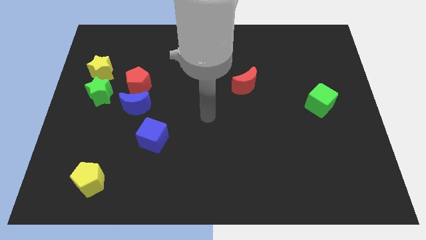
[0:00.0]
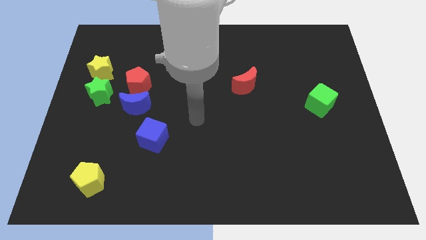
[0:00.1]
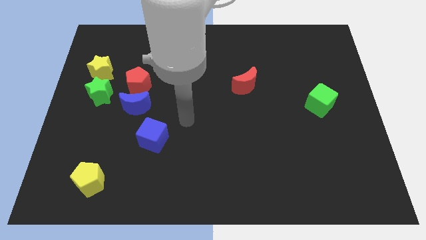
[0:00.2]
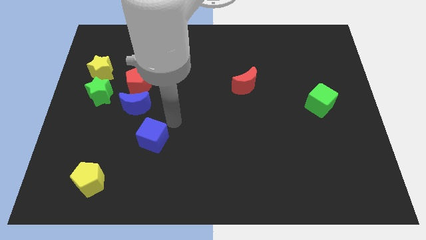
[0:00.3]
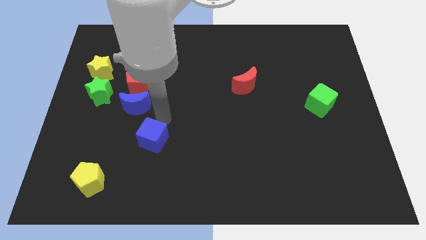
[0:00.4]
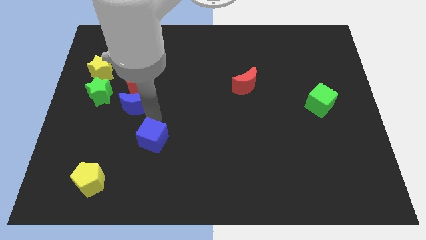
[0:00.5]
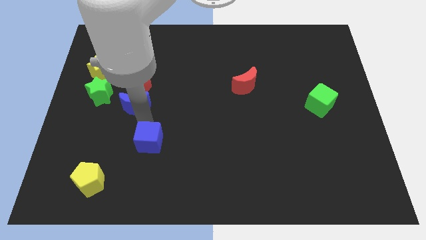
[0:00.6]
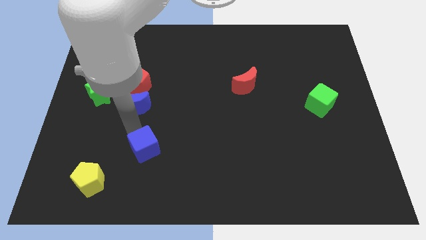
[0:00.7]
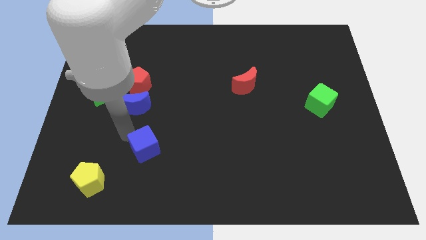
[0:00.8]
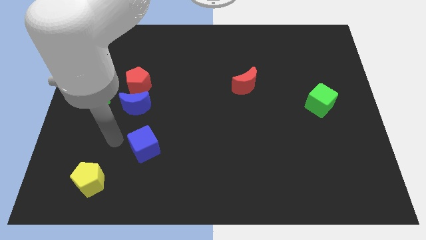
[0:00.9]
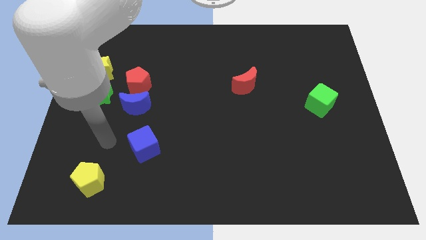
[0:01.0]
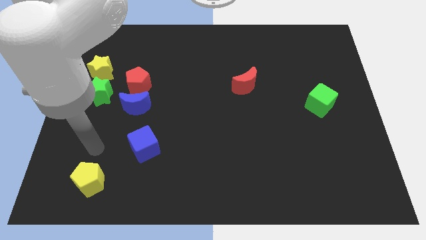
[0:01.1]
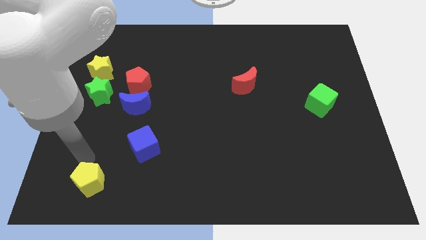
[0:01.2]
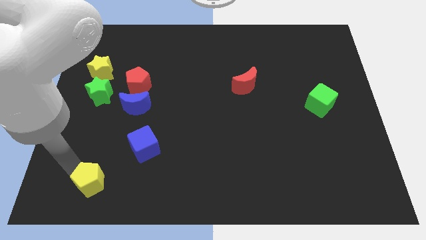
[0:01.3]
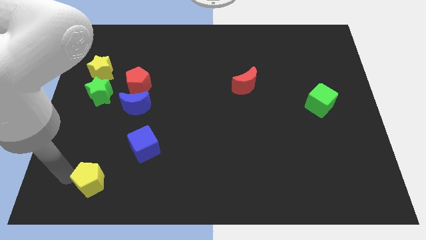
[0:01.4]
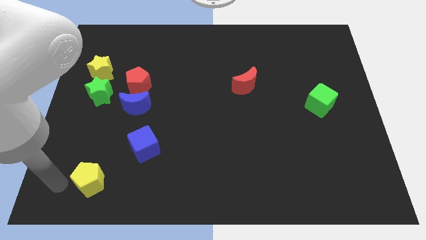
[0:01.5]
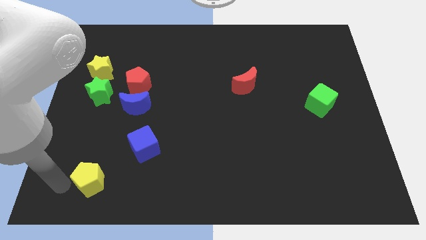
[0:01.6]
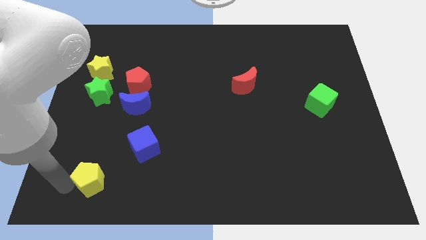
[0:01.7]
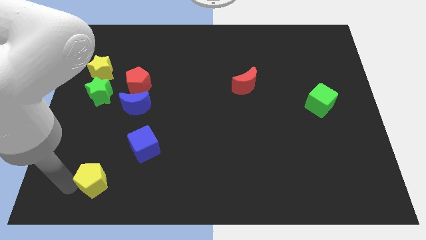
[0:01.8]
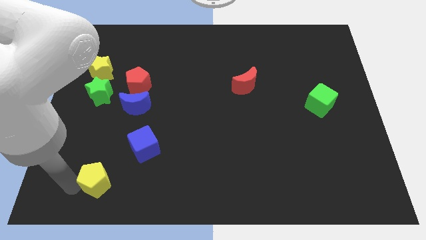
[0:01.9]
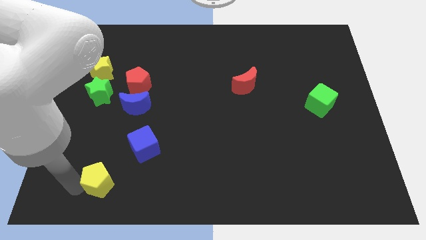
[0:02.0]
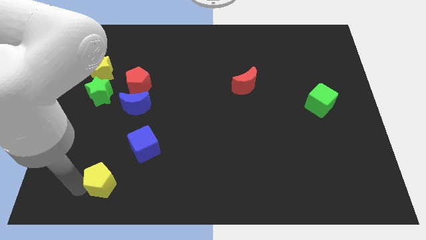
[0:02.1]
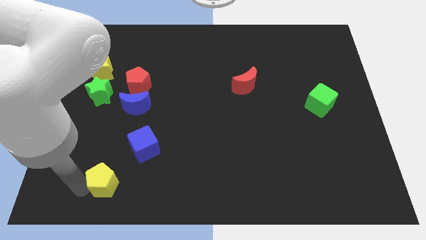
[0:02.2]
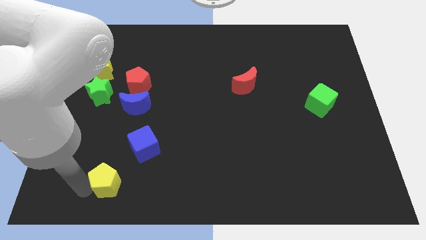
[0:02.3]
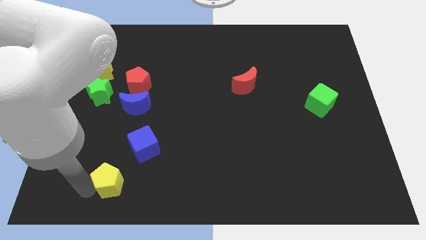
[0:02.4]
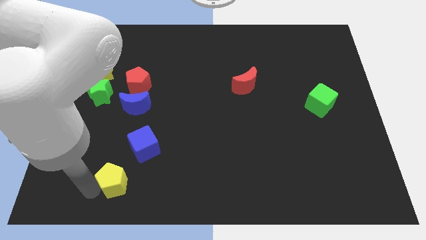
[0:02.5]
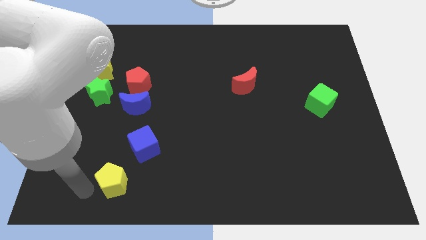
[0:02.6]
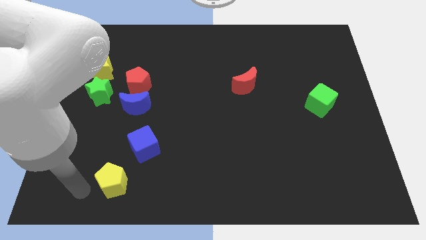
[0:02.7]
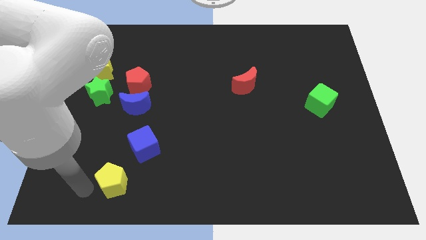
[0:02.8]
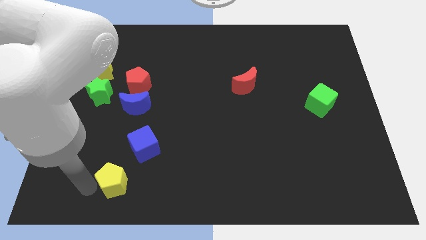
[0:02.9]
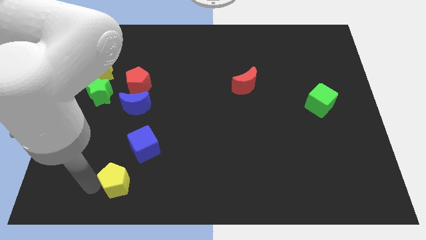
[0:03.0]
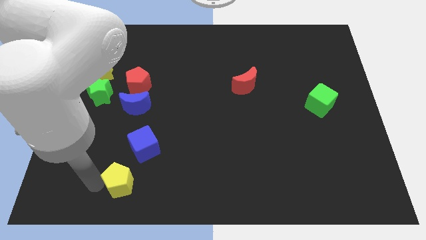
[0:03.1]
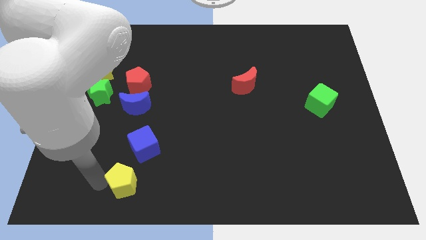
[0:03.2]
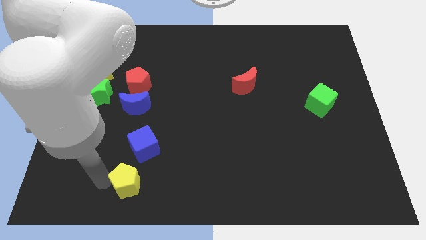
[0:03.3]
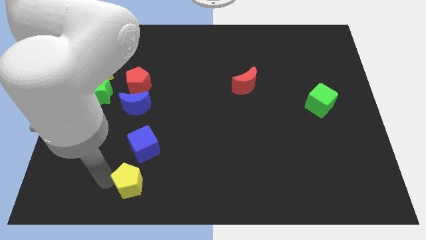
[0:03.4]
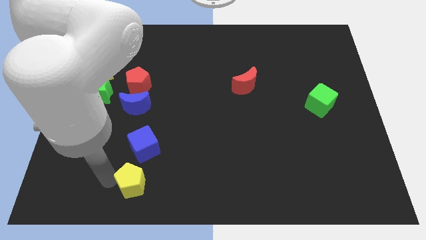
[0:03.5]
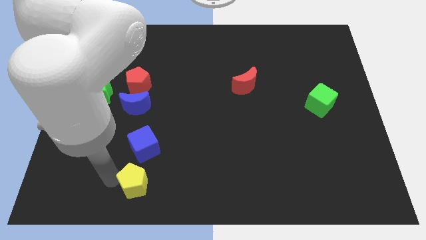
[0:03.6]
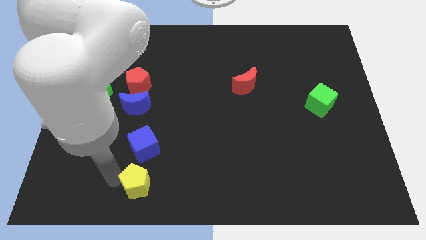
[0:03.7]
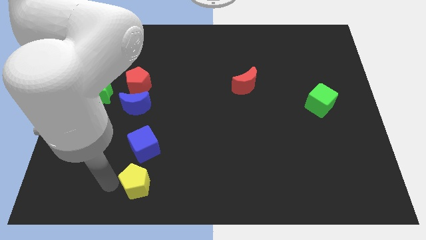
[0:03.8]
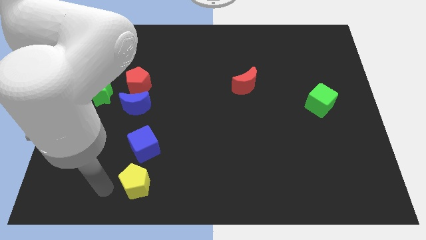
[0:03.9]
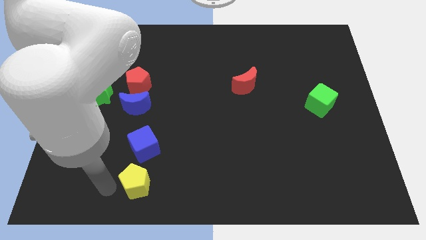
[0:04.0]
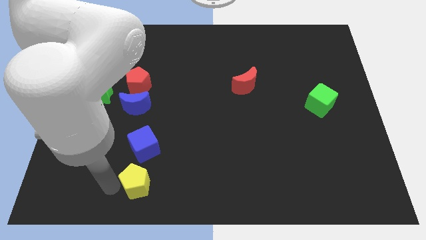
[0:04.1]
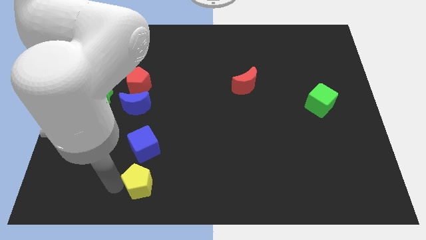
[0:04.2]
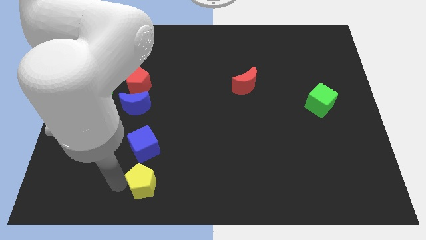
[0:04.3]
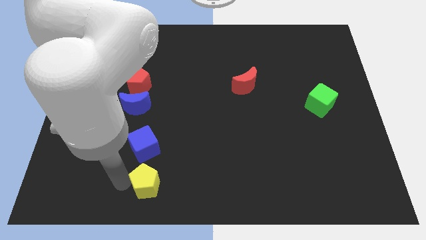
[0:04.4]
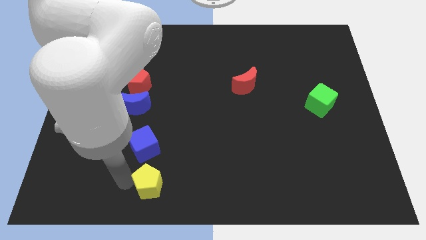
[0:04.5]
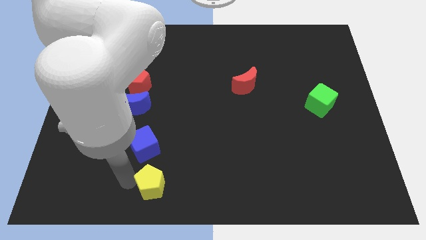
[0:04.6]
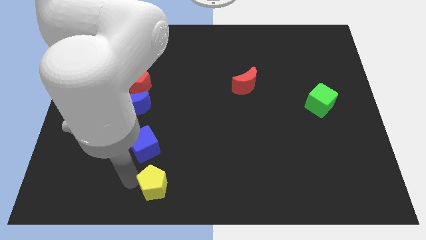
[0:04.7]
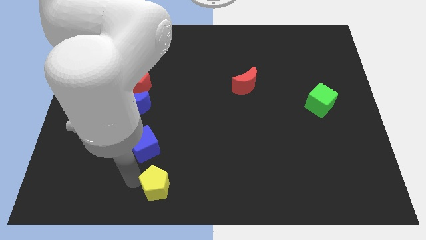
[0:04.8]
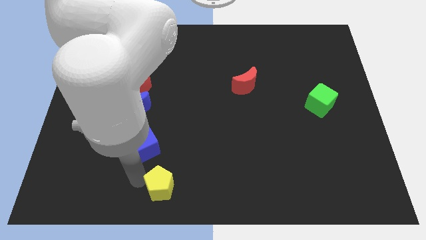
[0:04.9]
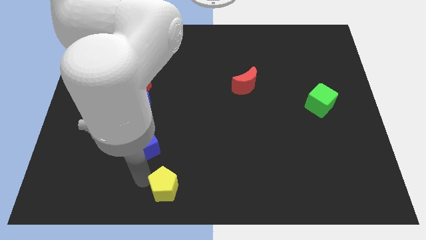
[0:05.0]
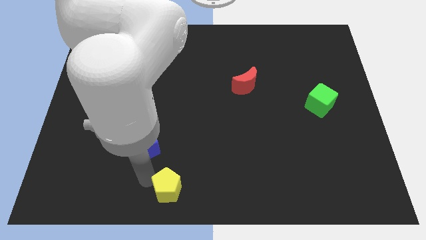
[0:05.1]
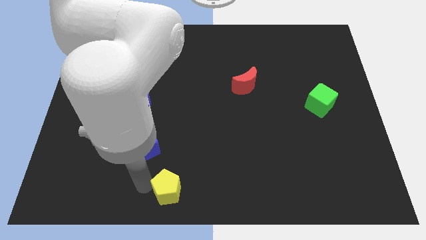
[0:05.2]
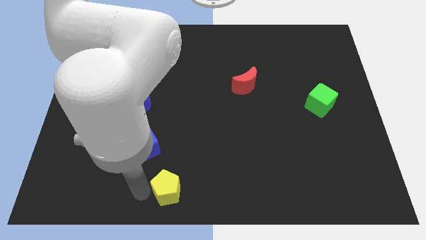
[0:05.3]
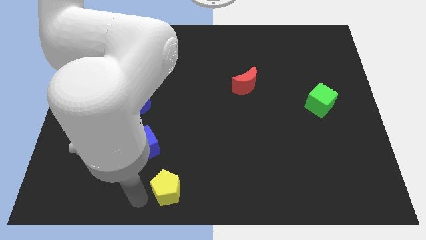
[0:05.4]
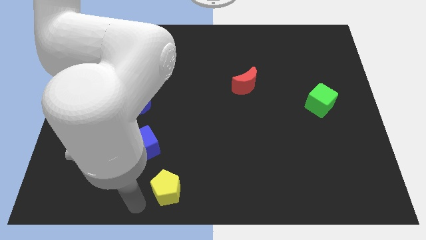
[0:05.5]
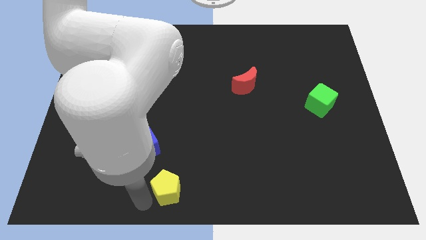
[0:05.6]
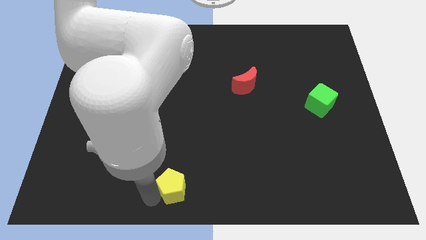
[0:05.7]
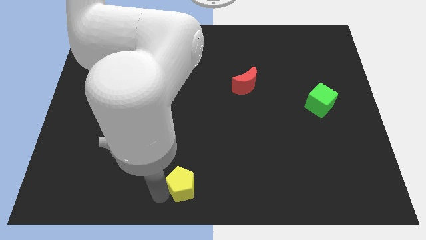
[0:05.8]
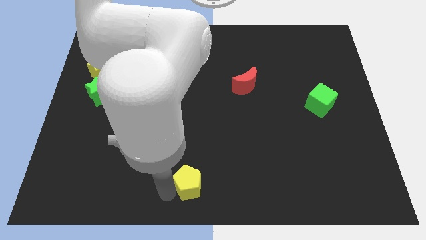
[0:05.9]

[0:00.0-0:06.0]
move the yellow pentagon right

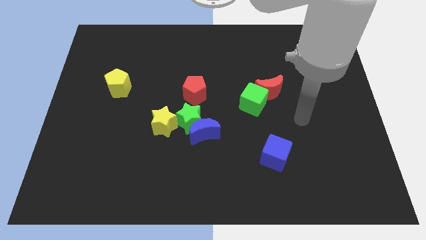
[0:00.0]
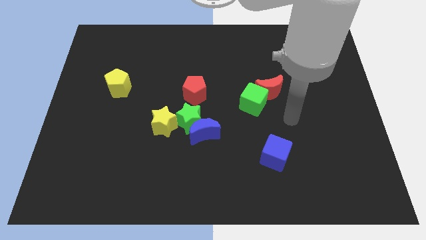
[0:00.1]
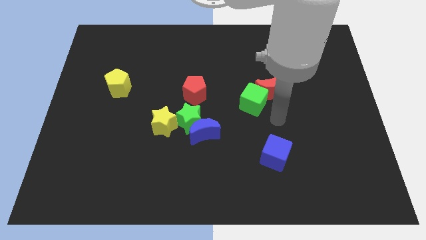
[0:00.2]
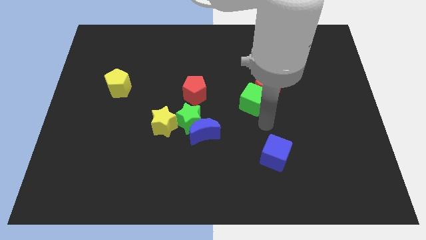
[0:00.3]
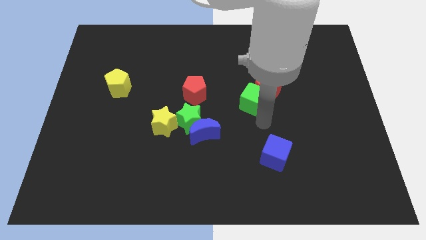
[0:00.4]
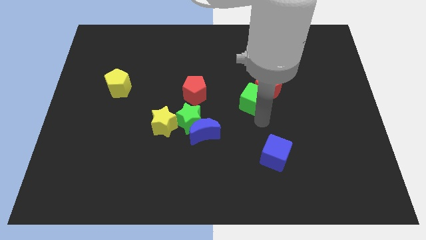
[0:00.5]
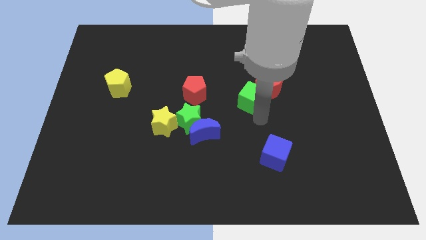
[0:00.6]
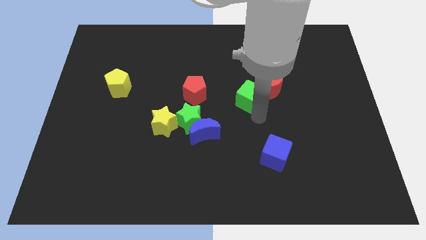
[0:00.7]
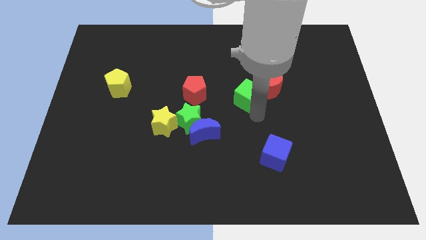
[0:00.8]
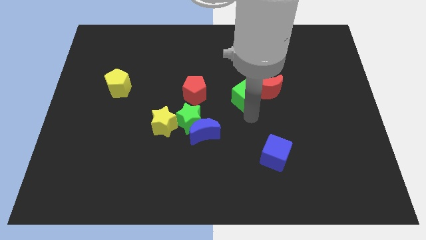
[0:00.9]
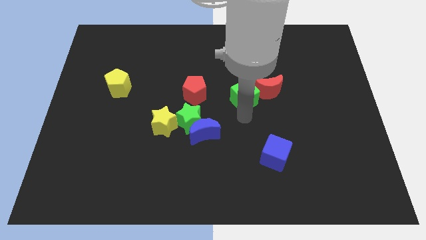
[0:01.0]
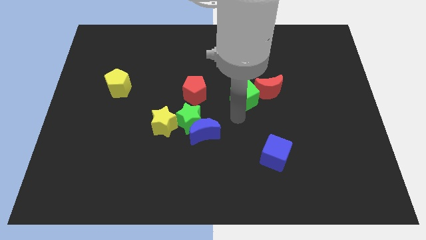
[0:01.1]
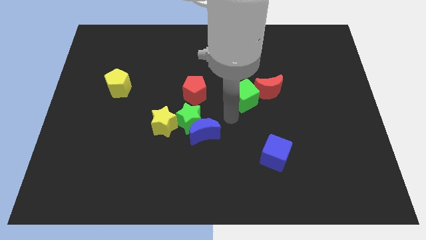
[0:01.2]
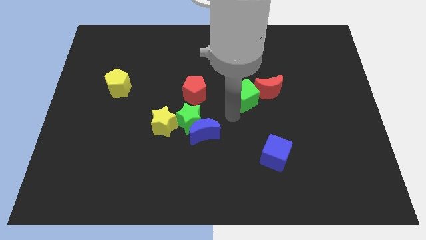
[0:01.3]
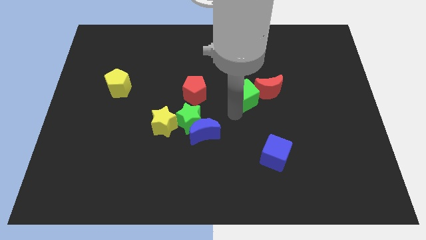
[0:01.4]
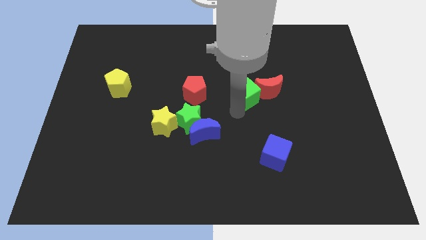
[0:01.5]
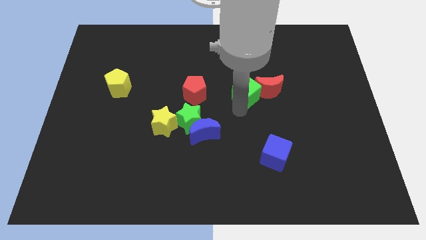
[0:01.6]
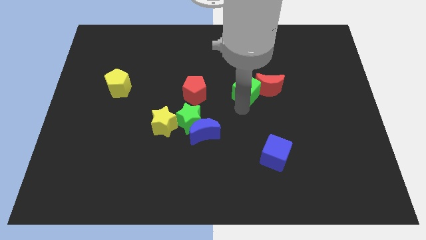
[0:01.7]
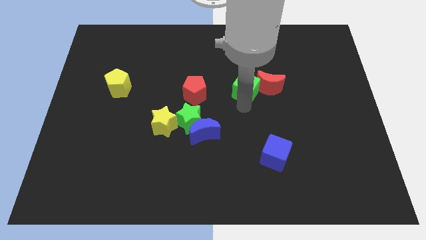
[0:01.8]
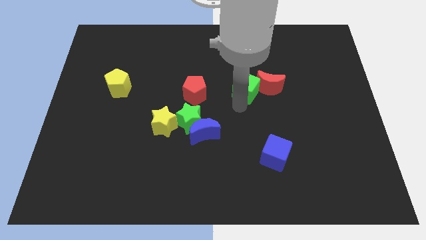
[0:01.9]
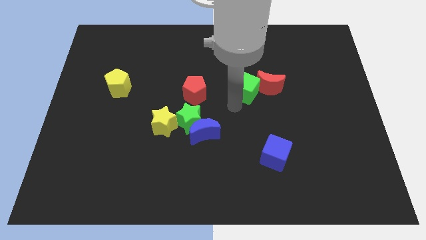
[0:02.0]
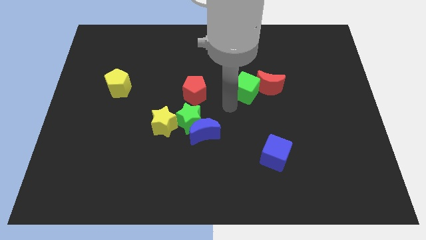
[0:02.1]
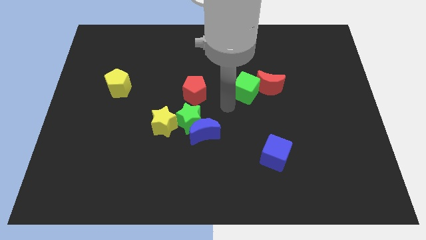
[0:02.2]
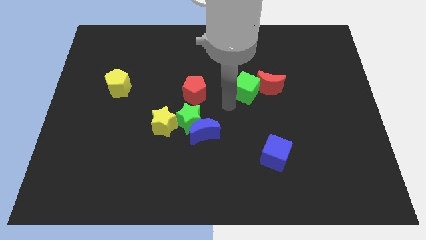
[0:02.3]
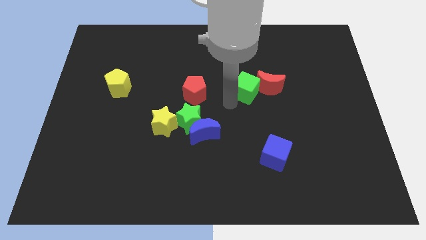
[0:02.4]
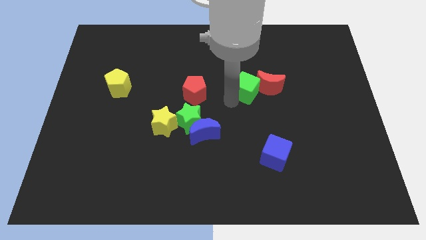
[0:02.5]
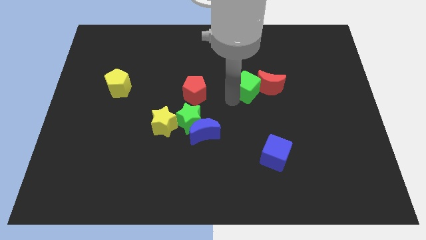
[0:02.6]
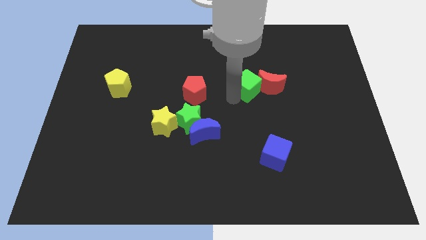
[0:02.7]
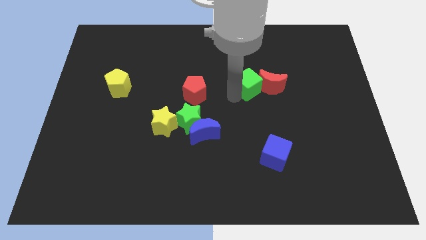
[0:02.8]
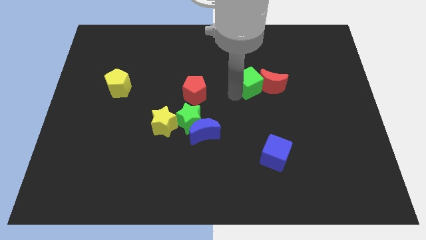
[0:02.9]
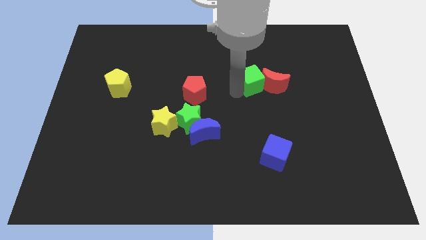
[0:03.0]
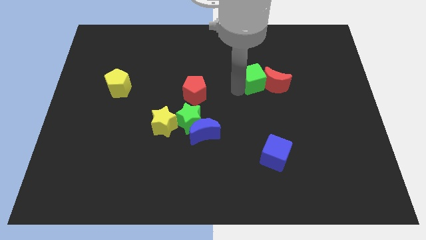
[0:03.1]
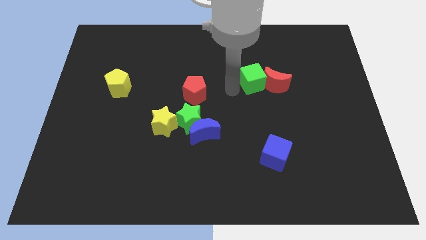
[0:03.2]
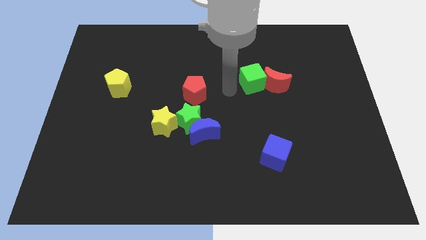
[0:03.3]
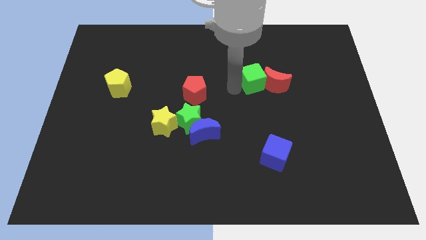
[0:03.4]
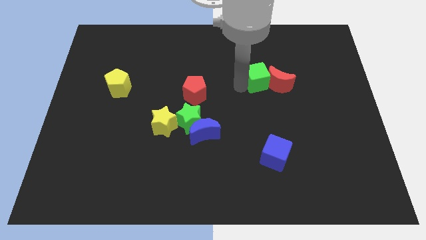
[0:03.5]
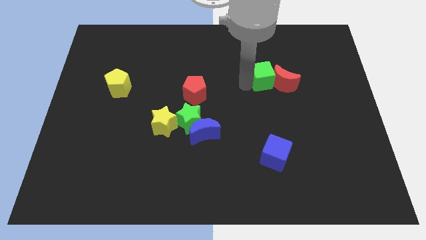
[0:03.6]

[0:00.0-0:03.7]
slightly move the green cube diagonally up and right
